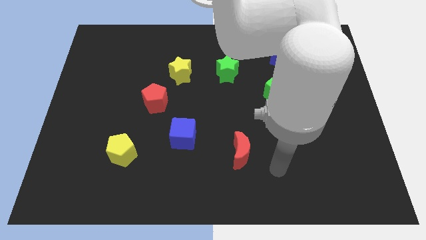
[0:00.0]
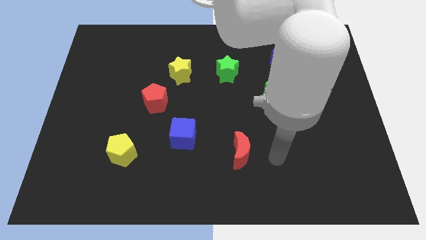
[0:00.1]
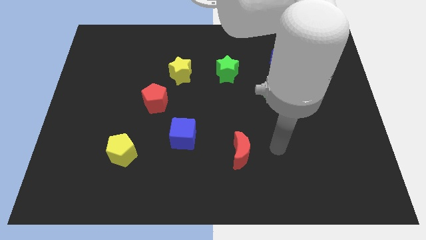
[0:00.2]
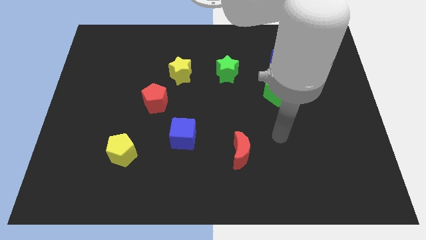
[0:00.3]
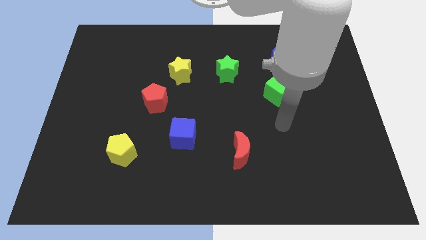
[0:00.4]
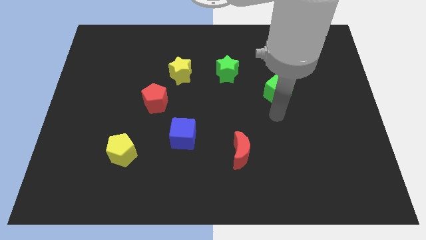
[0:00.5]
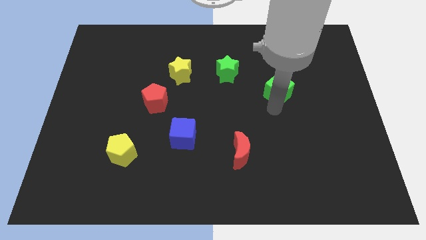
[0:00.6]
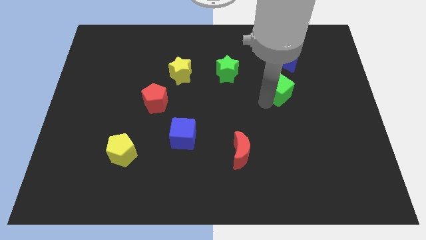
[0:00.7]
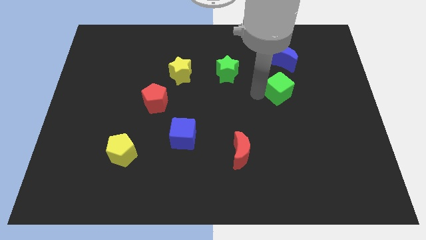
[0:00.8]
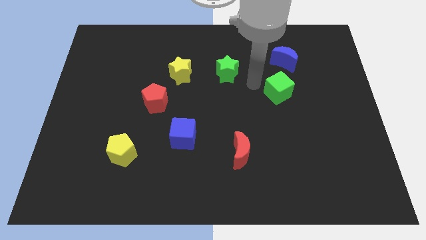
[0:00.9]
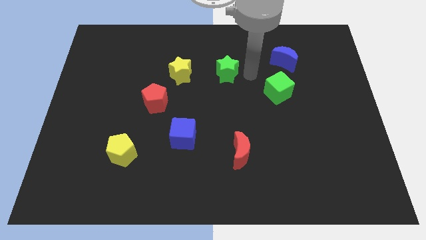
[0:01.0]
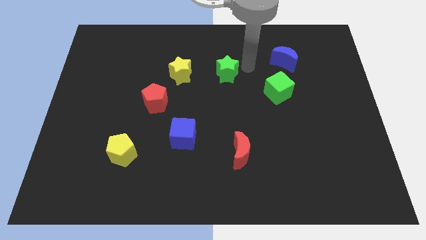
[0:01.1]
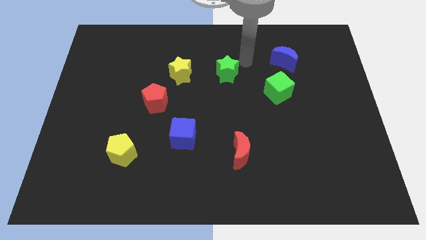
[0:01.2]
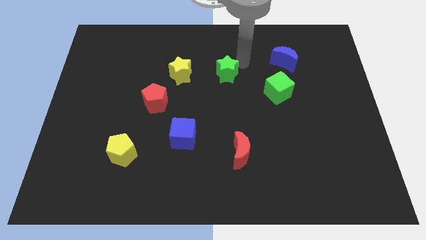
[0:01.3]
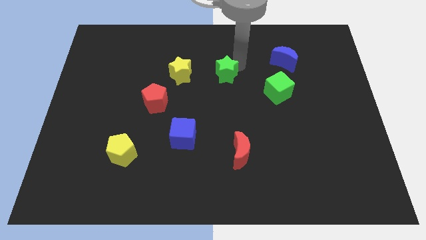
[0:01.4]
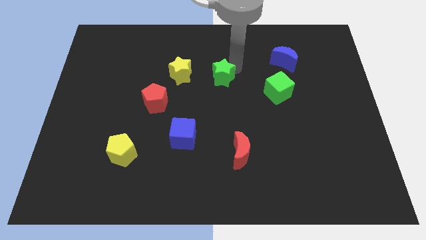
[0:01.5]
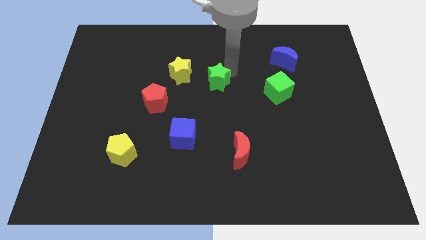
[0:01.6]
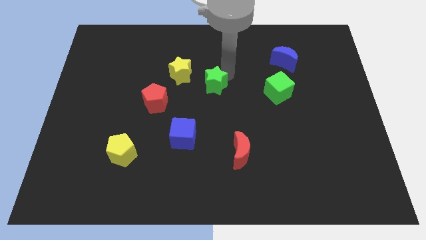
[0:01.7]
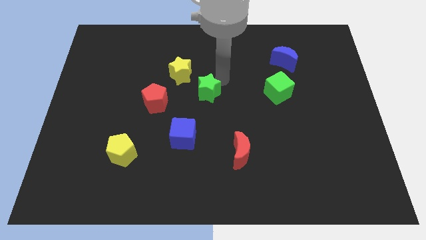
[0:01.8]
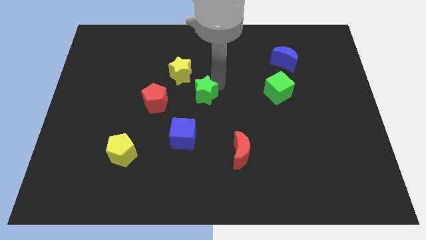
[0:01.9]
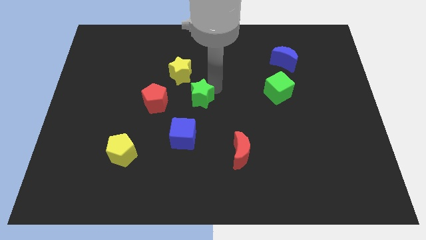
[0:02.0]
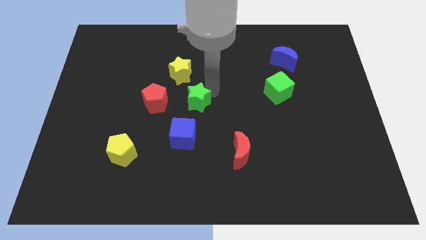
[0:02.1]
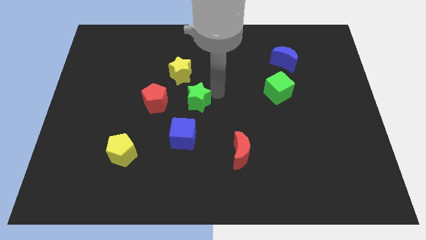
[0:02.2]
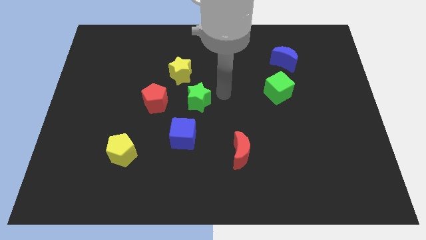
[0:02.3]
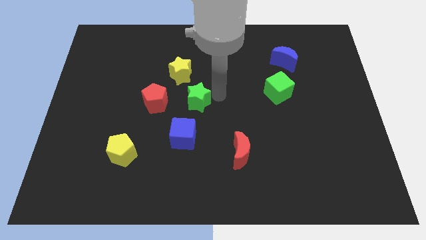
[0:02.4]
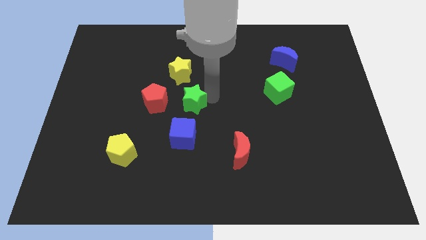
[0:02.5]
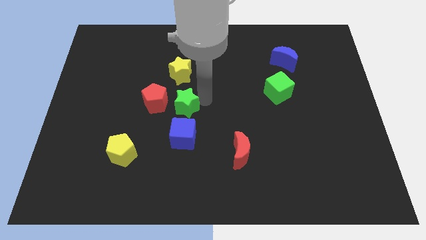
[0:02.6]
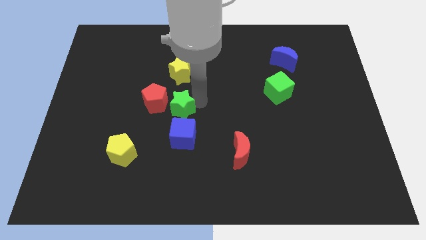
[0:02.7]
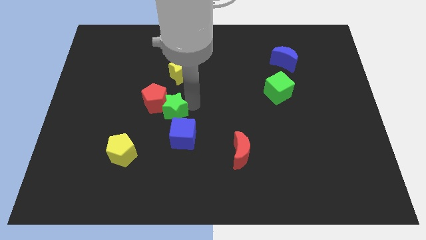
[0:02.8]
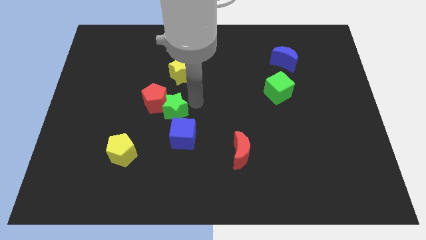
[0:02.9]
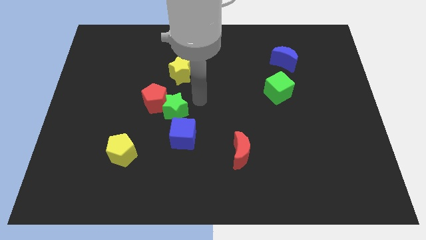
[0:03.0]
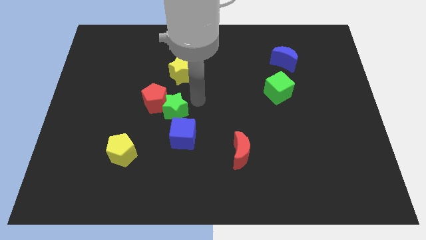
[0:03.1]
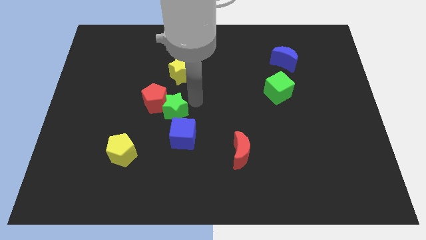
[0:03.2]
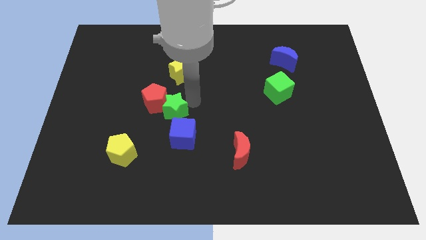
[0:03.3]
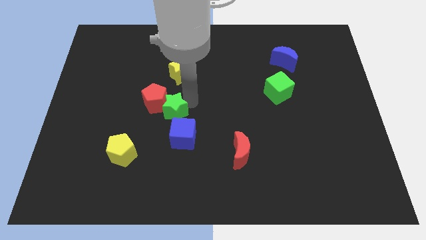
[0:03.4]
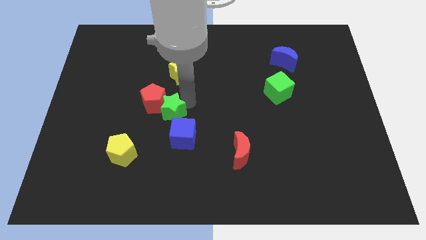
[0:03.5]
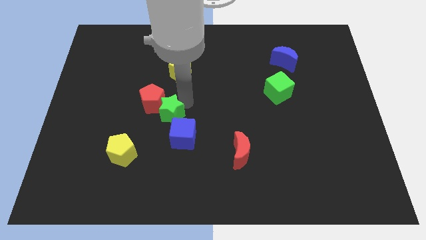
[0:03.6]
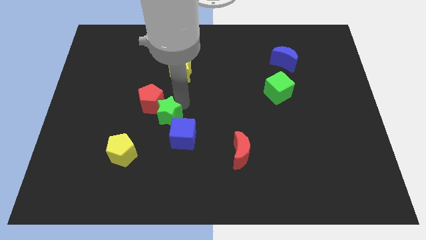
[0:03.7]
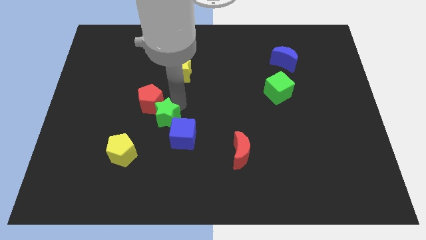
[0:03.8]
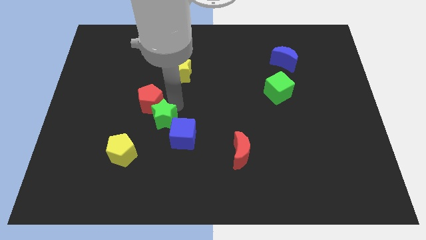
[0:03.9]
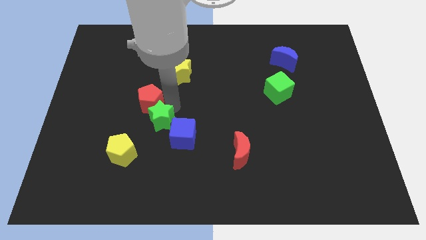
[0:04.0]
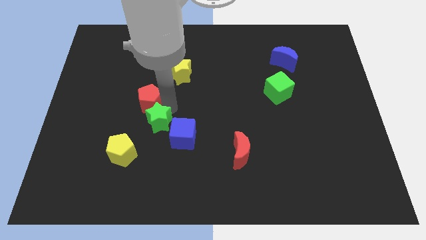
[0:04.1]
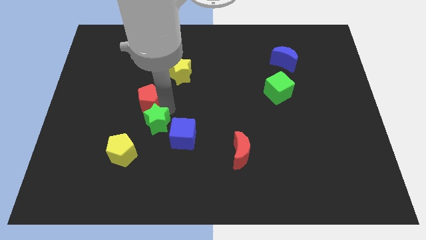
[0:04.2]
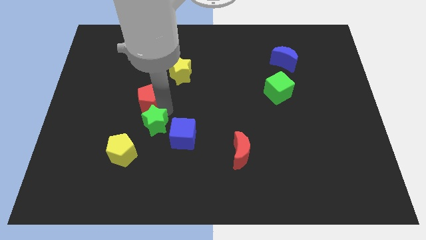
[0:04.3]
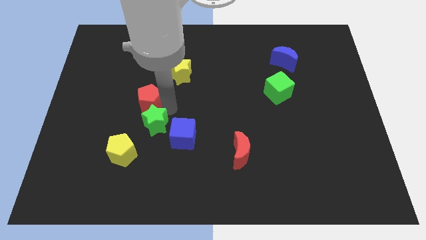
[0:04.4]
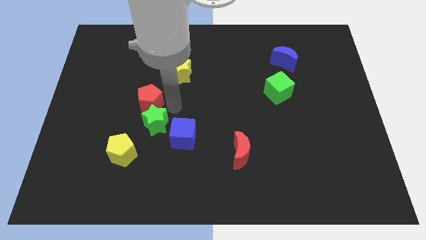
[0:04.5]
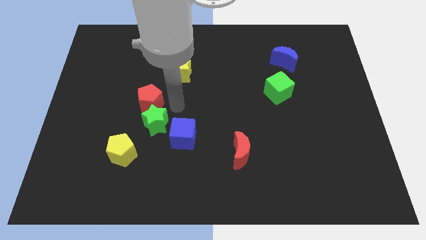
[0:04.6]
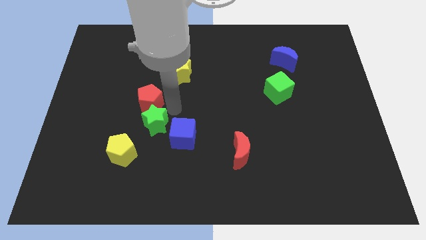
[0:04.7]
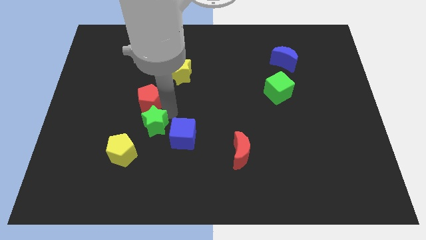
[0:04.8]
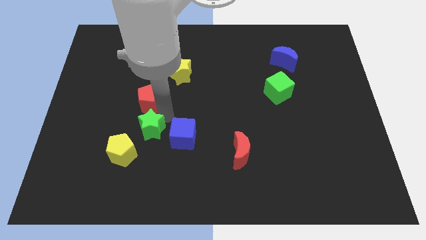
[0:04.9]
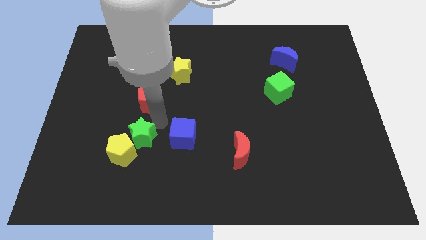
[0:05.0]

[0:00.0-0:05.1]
slide the green star to the yellow pentagon

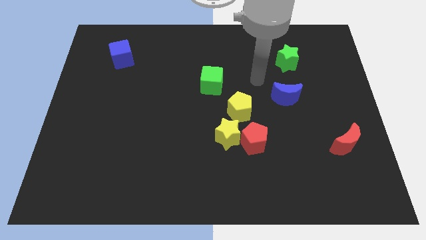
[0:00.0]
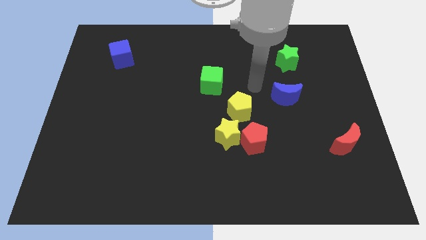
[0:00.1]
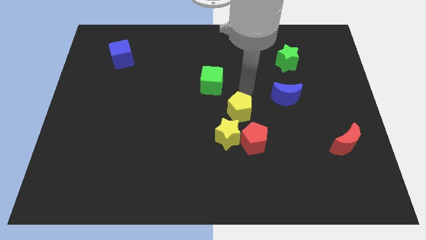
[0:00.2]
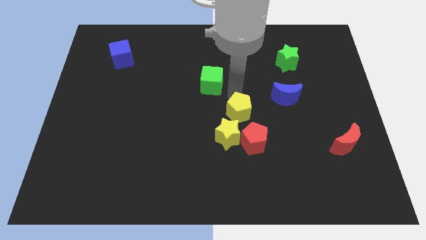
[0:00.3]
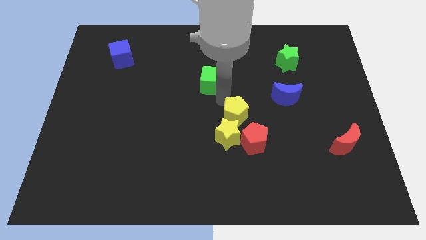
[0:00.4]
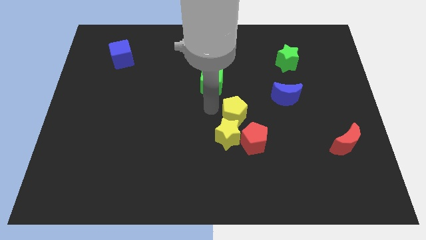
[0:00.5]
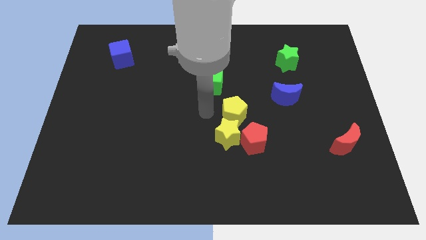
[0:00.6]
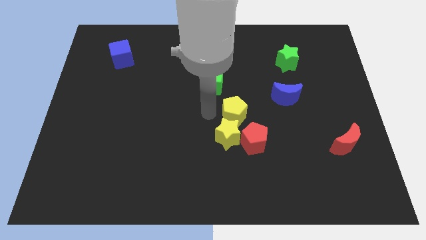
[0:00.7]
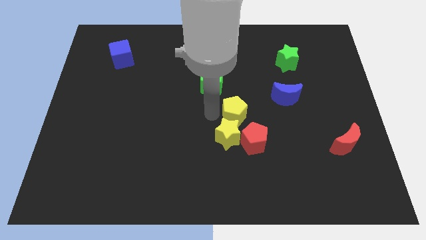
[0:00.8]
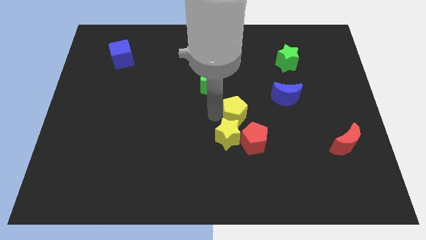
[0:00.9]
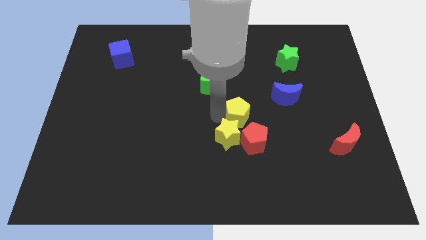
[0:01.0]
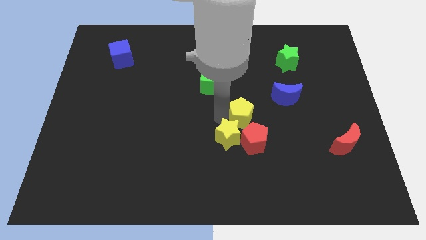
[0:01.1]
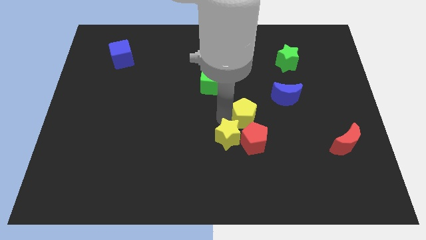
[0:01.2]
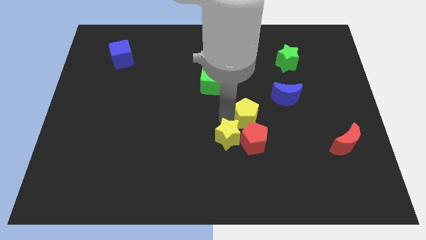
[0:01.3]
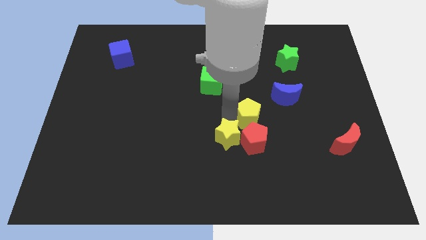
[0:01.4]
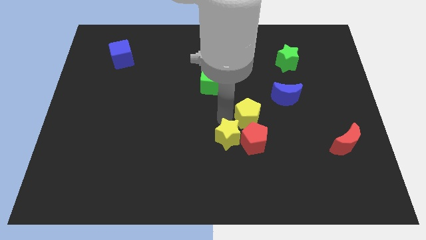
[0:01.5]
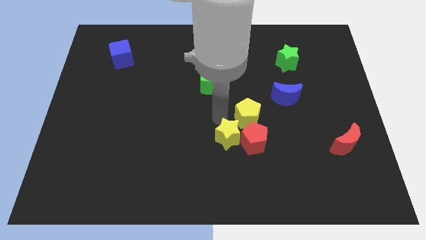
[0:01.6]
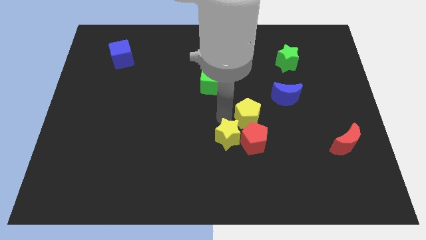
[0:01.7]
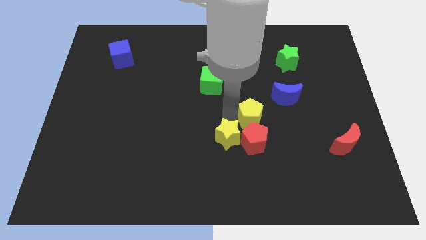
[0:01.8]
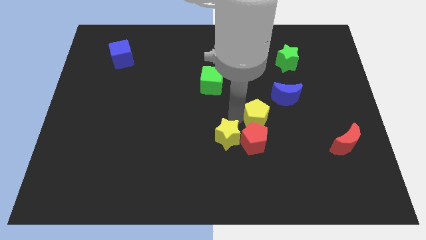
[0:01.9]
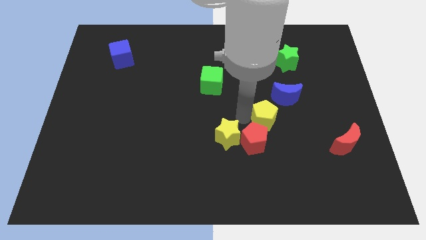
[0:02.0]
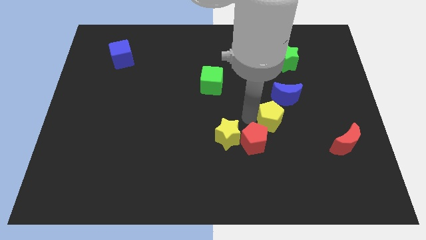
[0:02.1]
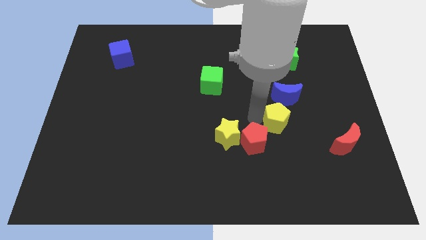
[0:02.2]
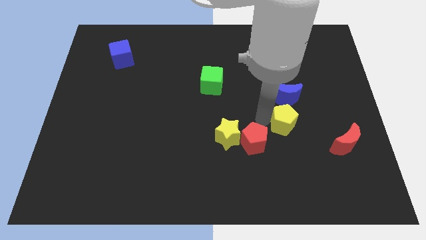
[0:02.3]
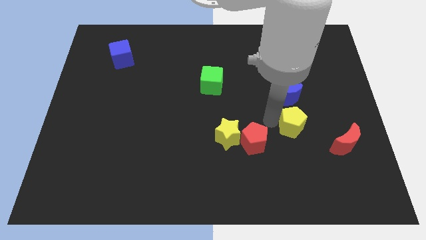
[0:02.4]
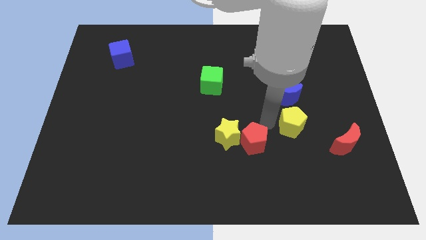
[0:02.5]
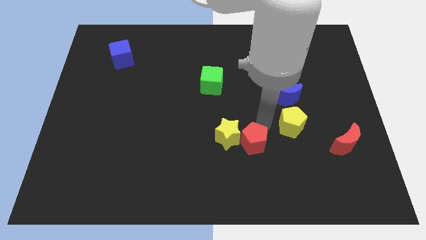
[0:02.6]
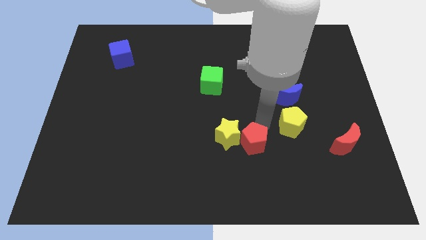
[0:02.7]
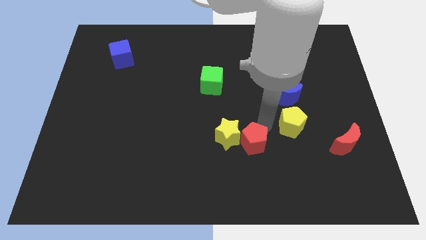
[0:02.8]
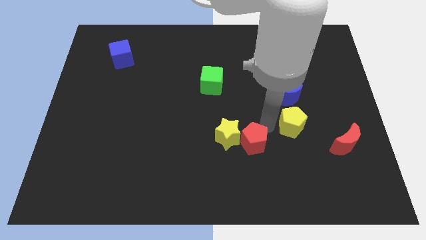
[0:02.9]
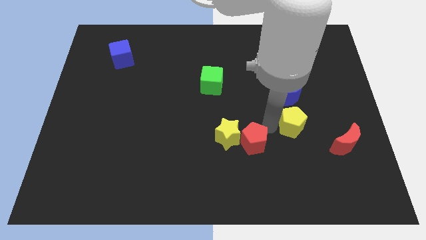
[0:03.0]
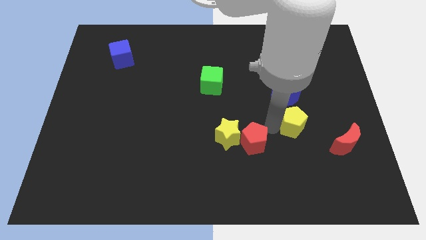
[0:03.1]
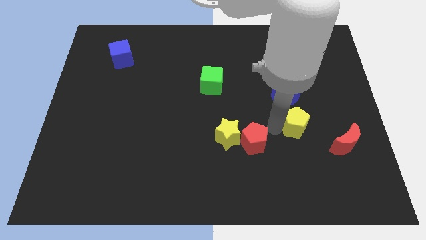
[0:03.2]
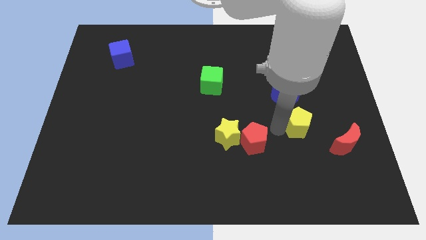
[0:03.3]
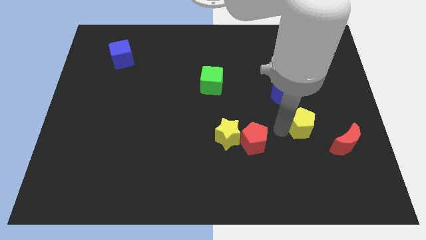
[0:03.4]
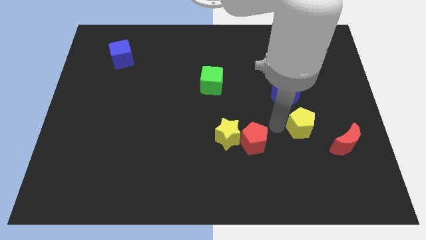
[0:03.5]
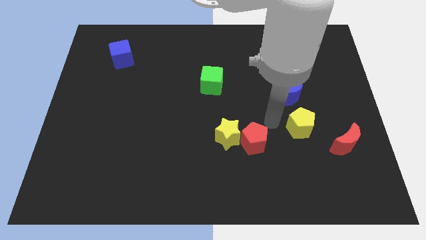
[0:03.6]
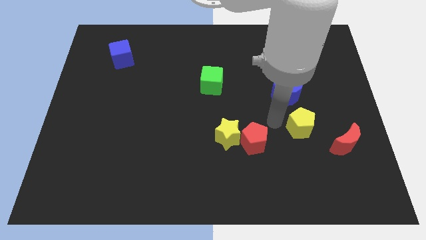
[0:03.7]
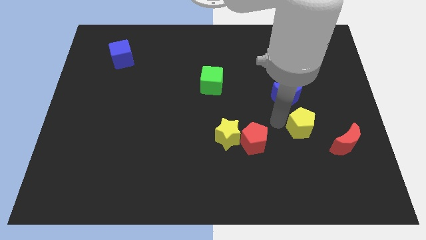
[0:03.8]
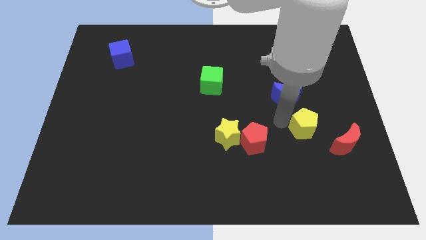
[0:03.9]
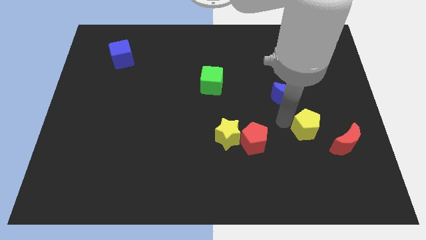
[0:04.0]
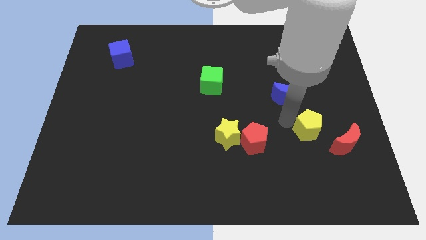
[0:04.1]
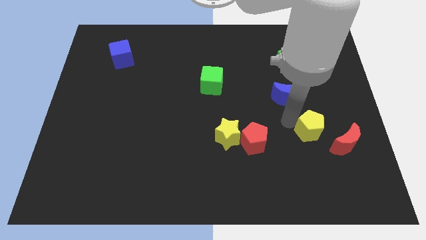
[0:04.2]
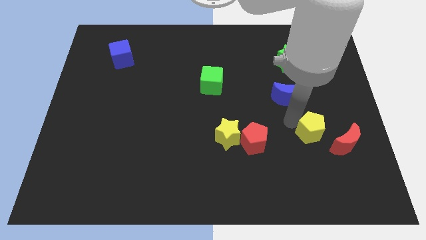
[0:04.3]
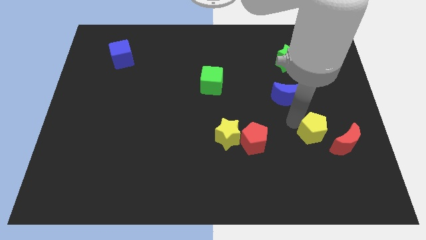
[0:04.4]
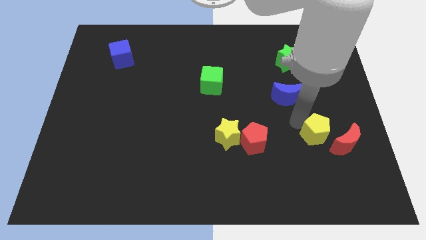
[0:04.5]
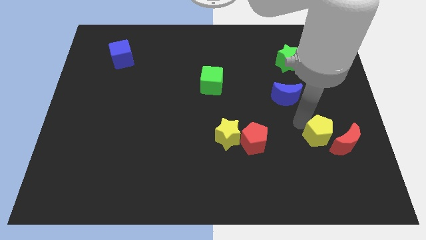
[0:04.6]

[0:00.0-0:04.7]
slide the yellow pentagon next to the red moon
